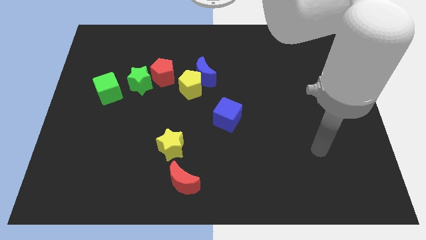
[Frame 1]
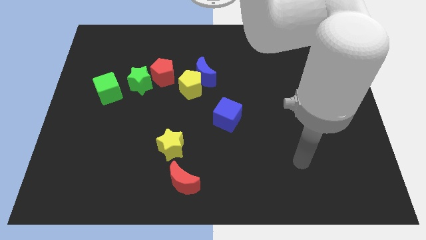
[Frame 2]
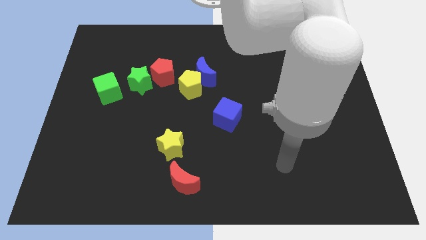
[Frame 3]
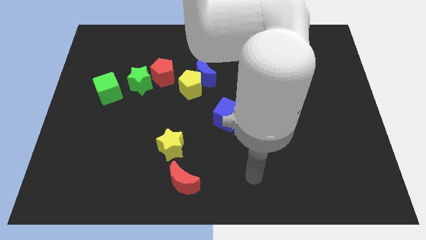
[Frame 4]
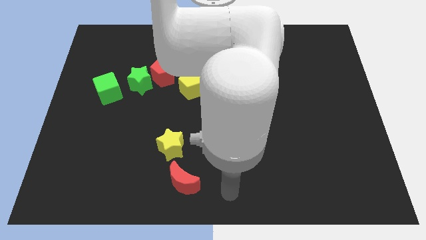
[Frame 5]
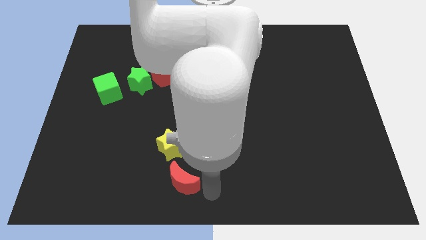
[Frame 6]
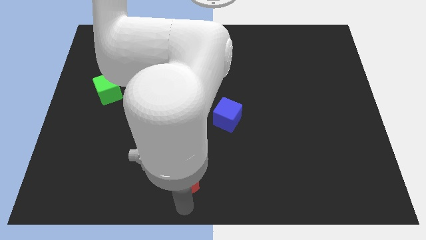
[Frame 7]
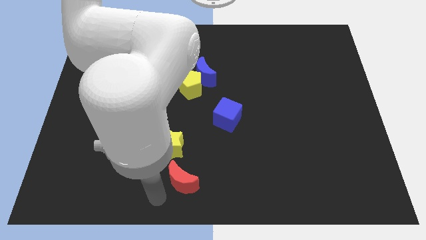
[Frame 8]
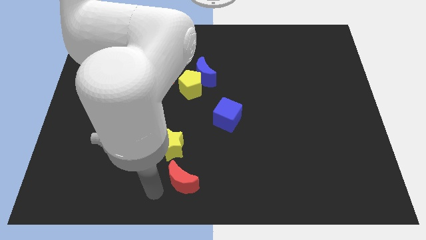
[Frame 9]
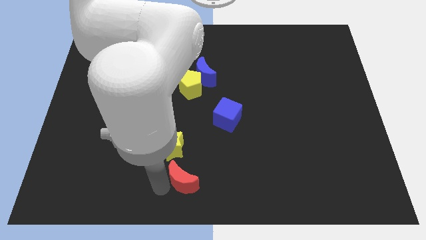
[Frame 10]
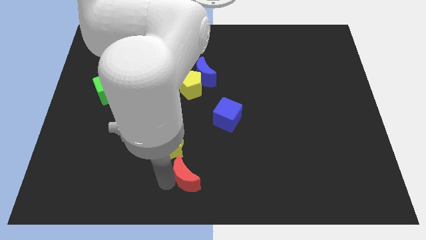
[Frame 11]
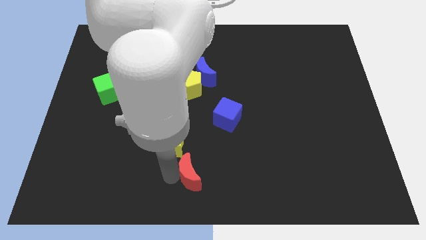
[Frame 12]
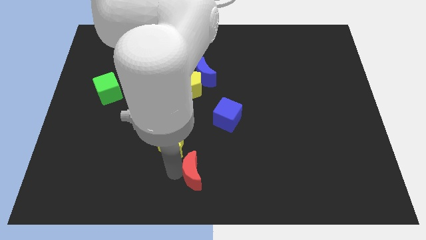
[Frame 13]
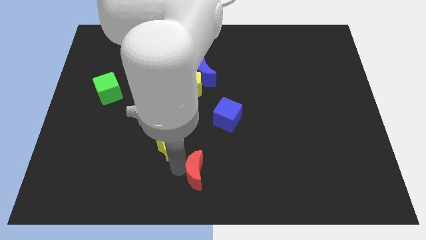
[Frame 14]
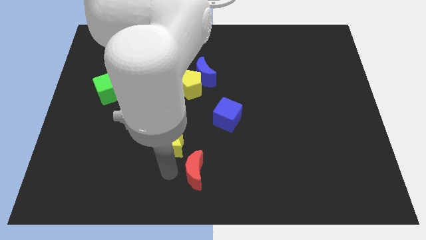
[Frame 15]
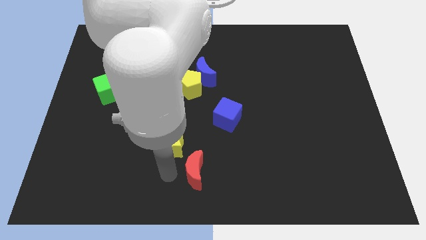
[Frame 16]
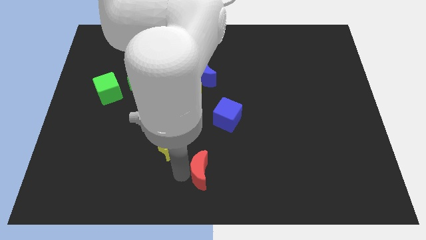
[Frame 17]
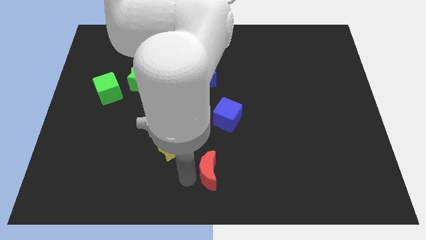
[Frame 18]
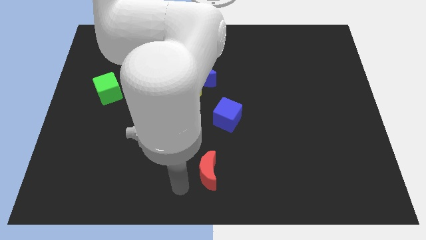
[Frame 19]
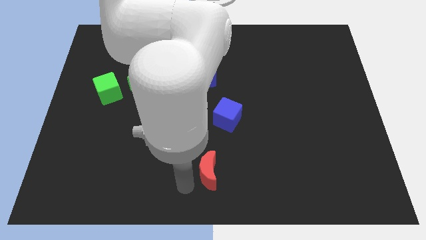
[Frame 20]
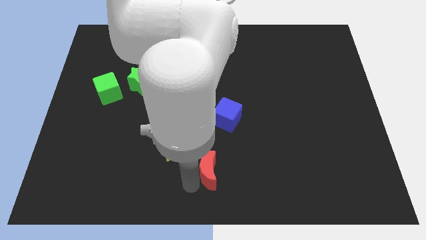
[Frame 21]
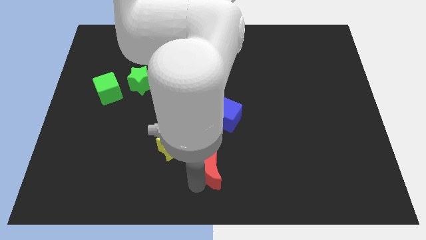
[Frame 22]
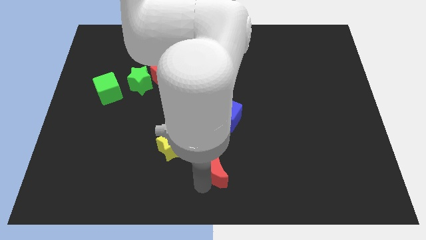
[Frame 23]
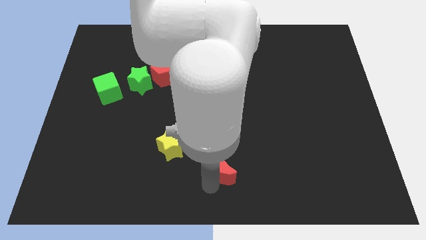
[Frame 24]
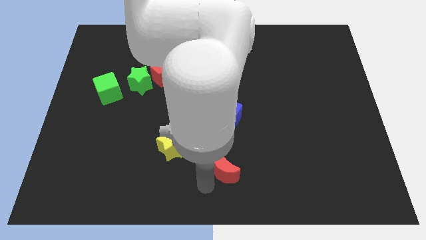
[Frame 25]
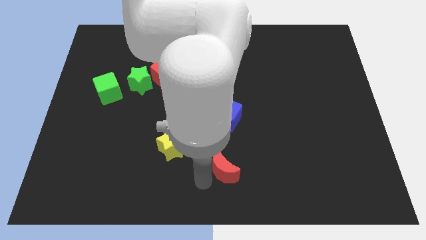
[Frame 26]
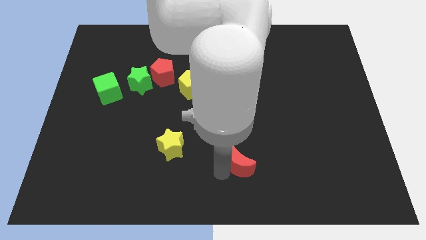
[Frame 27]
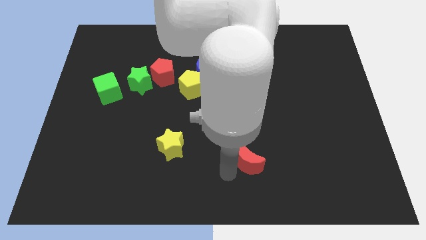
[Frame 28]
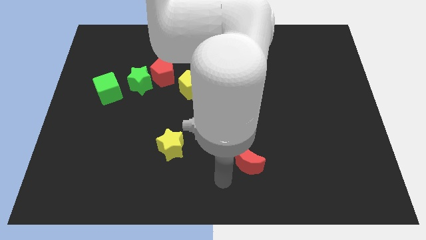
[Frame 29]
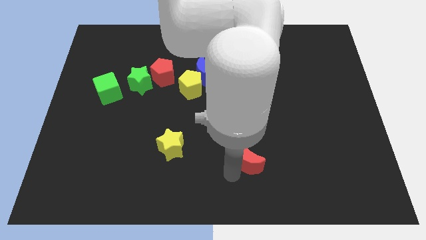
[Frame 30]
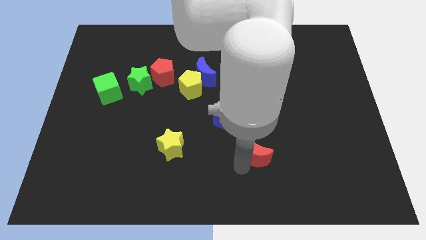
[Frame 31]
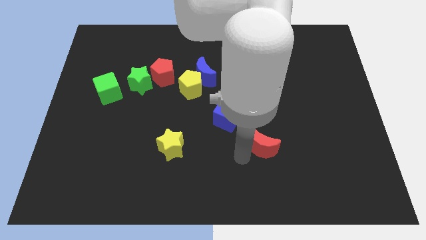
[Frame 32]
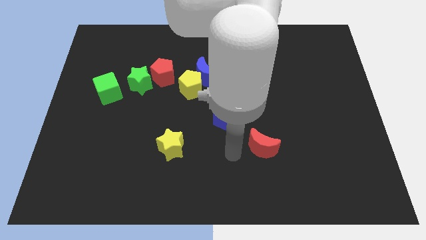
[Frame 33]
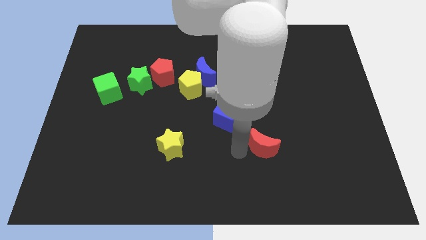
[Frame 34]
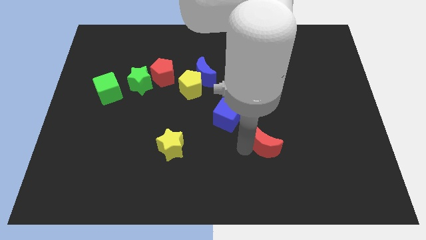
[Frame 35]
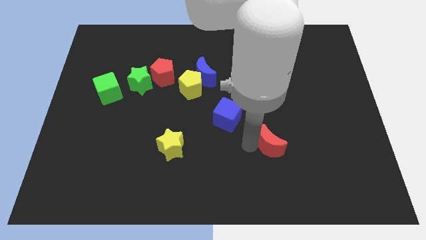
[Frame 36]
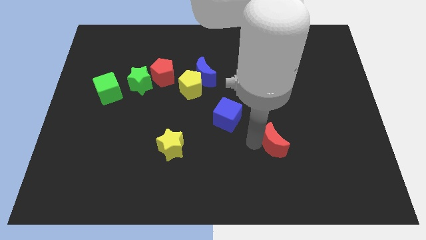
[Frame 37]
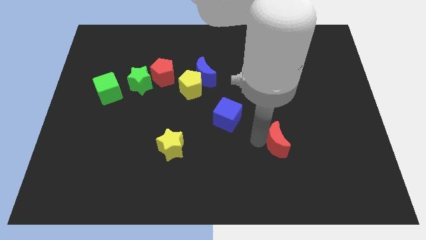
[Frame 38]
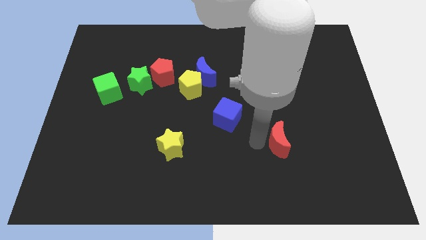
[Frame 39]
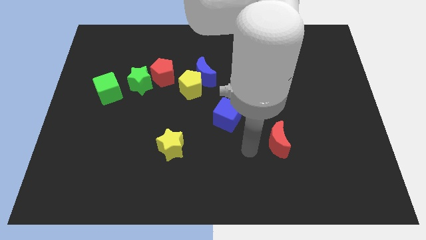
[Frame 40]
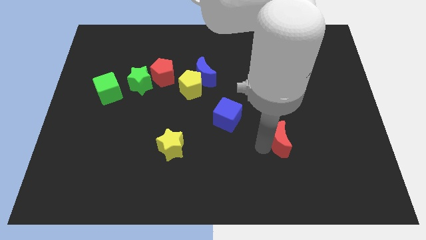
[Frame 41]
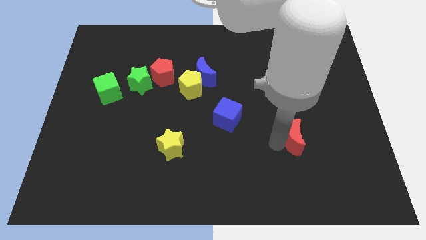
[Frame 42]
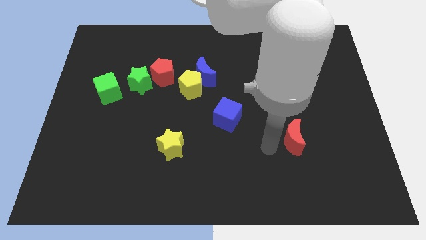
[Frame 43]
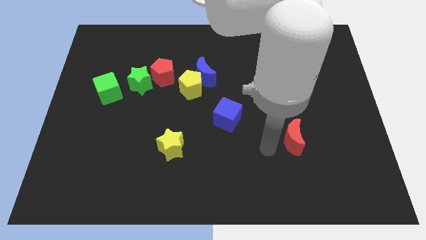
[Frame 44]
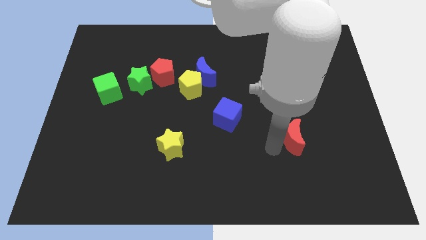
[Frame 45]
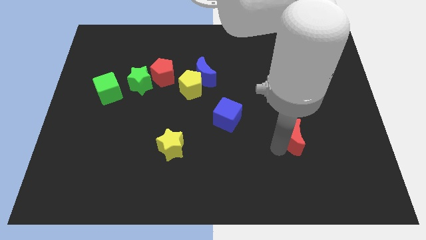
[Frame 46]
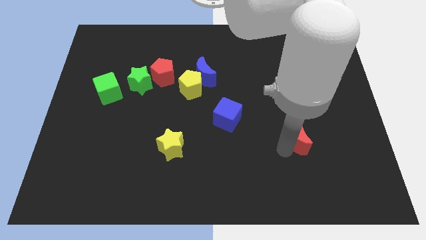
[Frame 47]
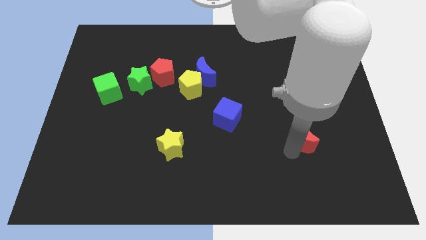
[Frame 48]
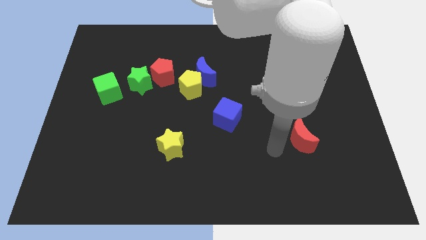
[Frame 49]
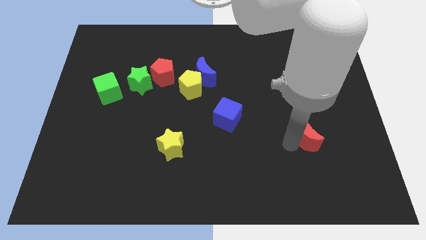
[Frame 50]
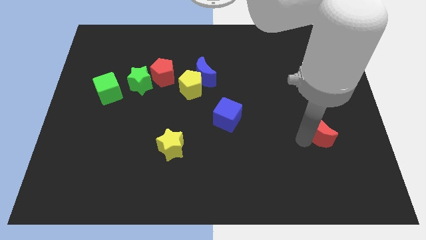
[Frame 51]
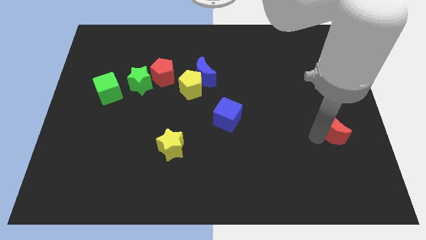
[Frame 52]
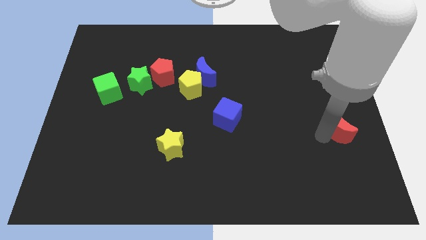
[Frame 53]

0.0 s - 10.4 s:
slide the red moon to the right side of the board

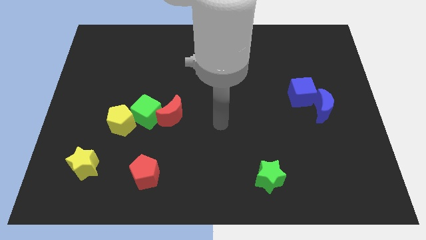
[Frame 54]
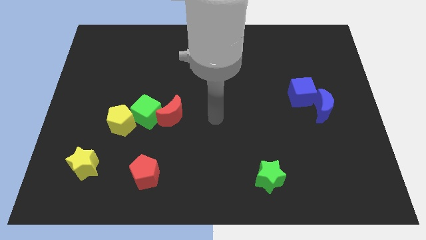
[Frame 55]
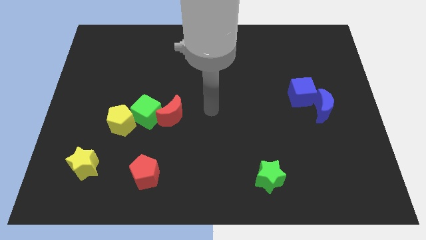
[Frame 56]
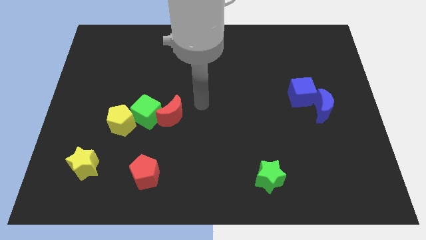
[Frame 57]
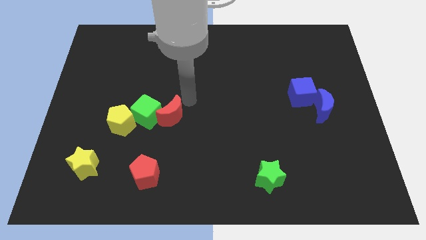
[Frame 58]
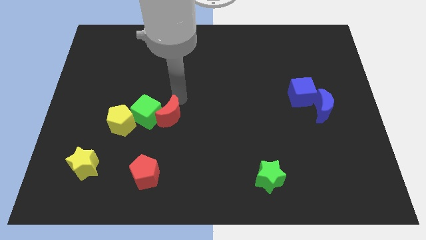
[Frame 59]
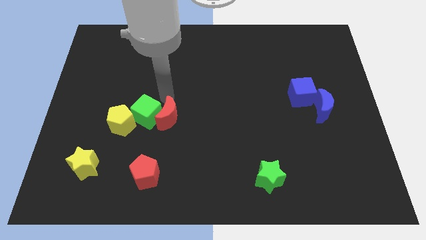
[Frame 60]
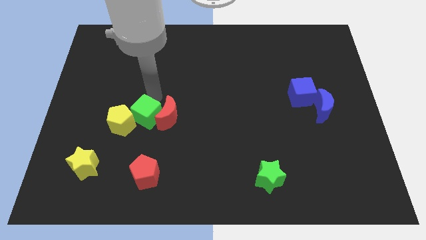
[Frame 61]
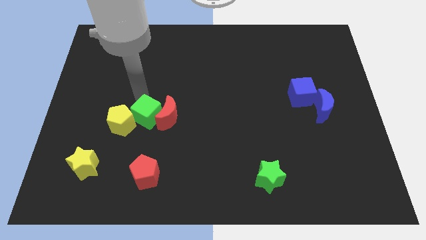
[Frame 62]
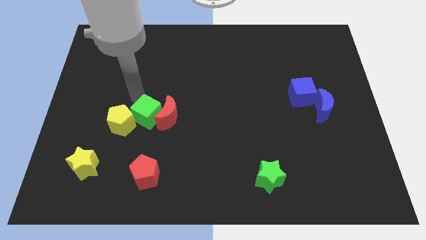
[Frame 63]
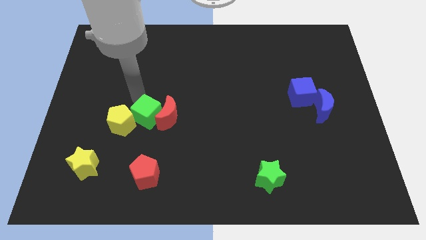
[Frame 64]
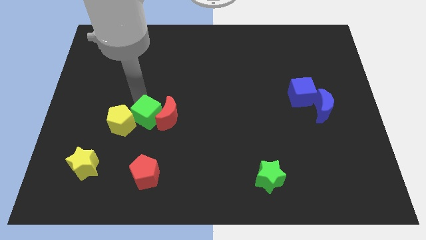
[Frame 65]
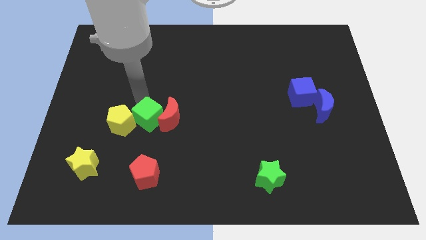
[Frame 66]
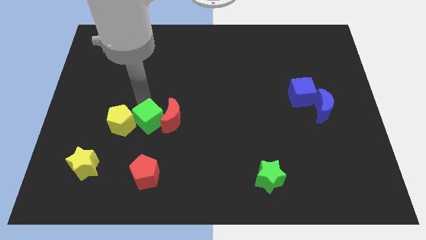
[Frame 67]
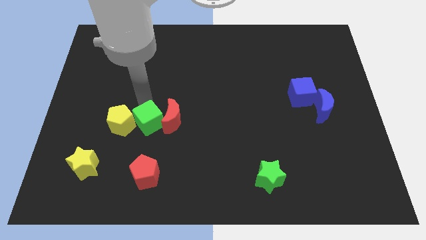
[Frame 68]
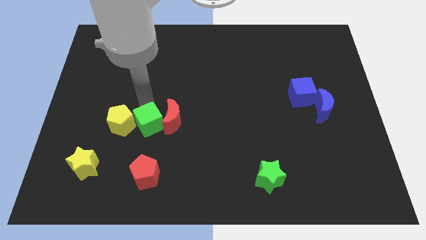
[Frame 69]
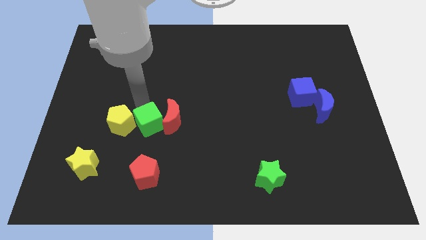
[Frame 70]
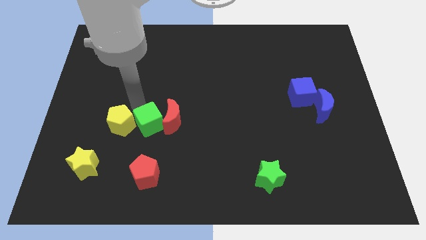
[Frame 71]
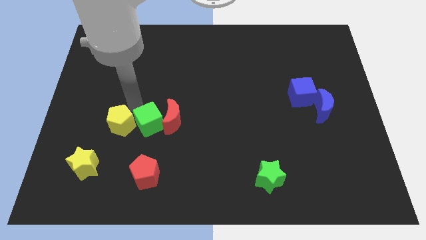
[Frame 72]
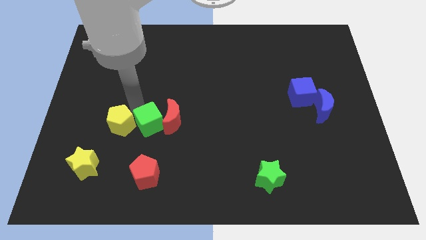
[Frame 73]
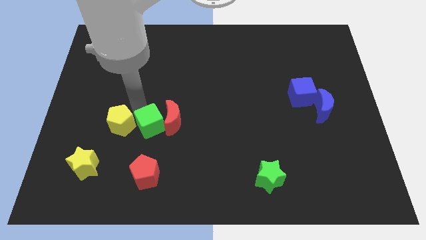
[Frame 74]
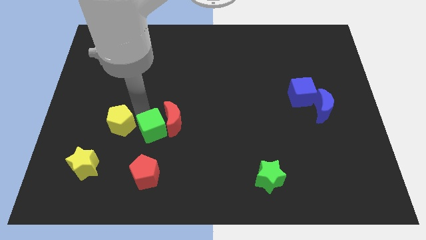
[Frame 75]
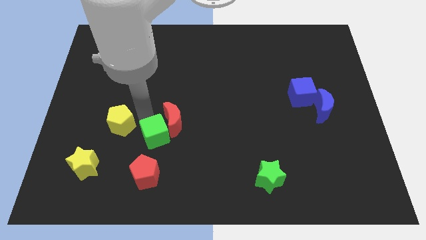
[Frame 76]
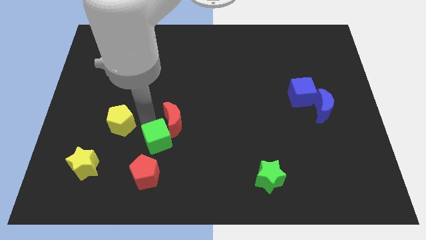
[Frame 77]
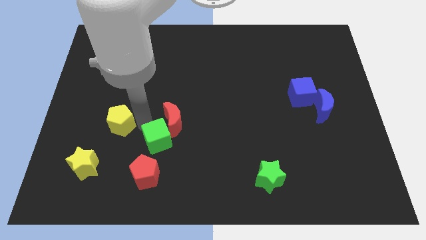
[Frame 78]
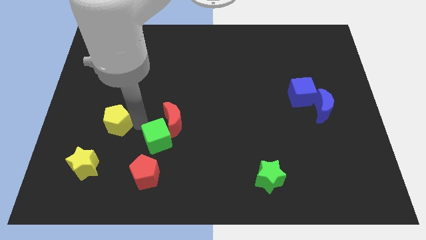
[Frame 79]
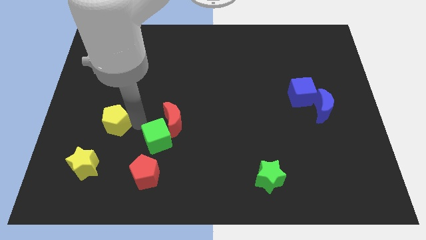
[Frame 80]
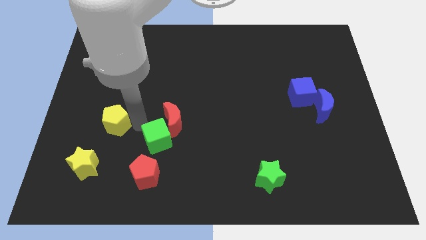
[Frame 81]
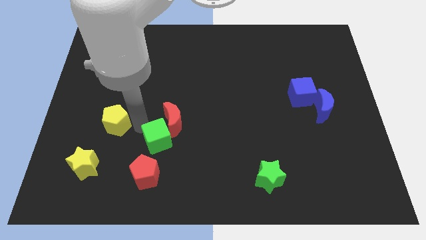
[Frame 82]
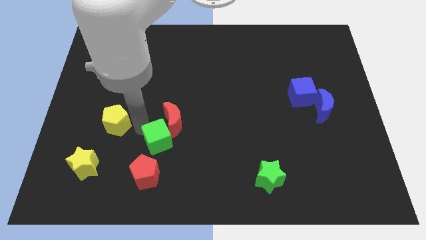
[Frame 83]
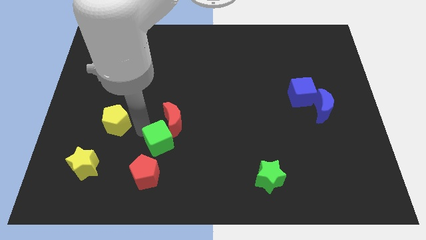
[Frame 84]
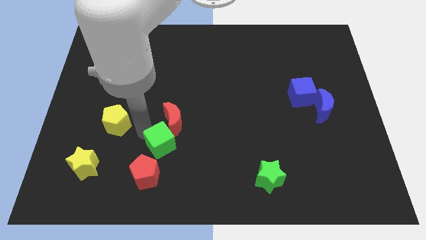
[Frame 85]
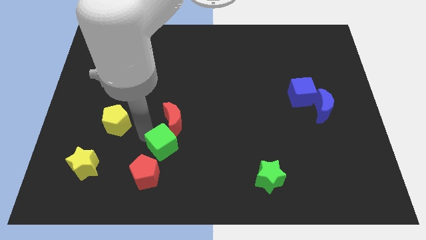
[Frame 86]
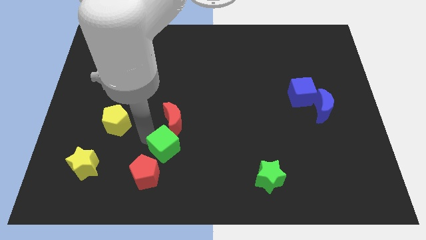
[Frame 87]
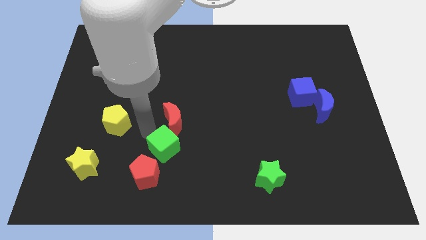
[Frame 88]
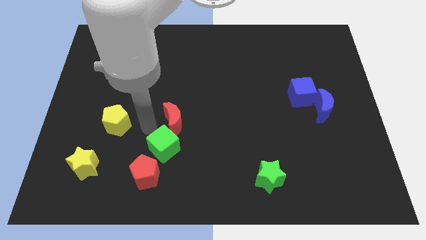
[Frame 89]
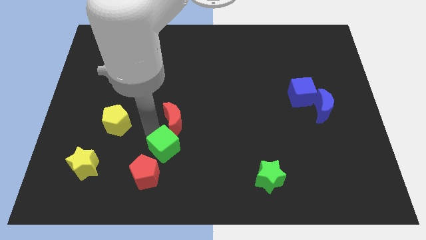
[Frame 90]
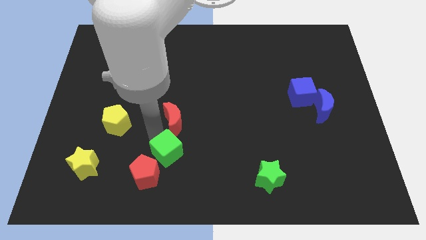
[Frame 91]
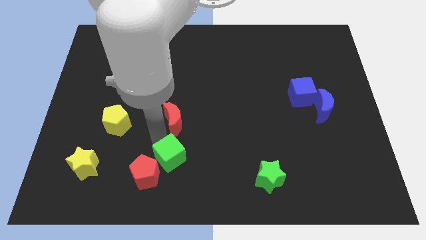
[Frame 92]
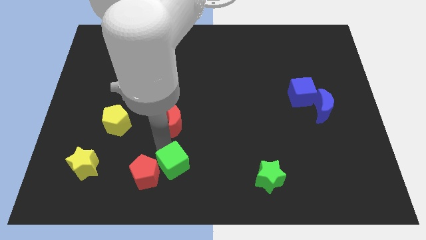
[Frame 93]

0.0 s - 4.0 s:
move the green cube to the bottom side
